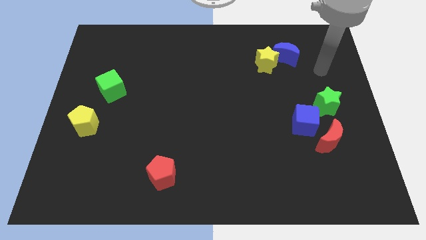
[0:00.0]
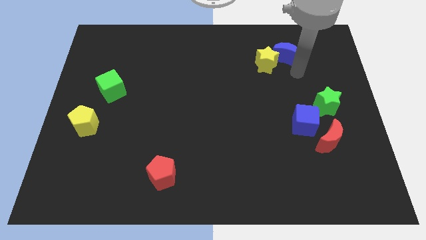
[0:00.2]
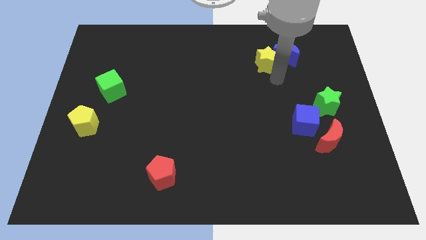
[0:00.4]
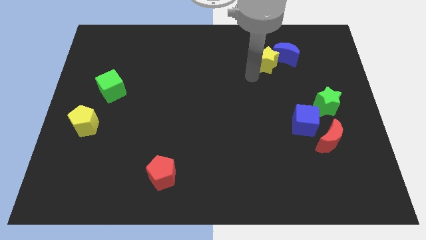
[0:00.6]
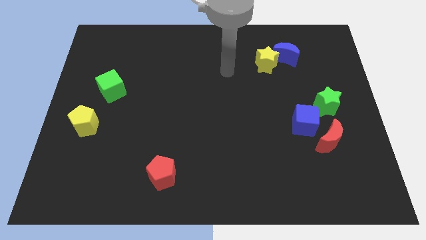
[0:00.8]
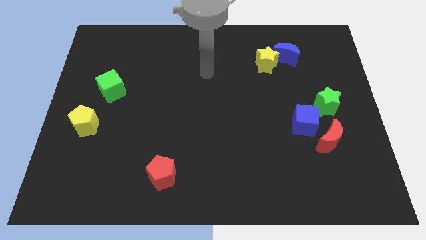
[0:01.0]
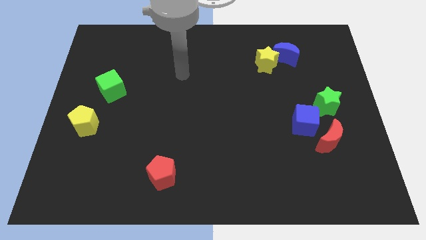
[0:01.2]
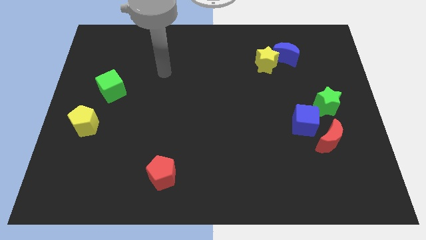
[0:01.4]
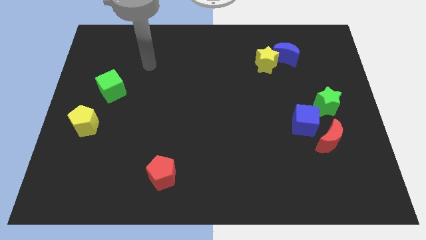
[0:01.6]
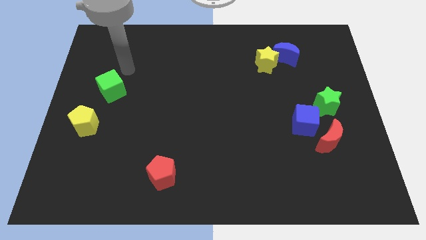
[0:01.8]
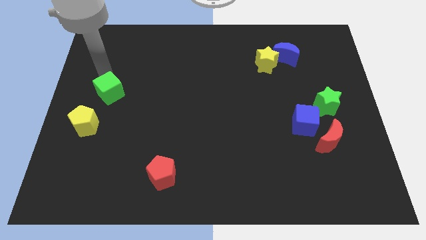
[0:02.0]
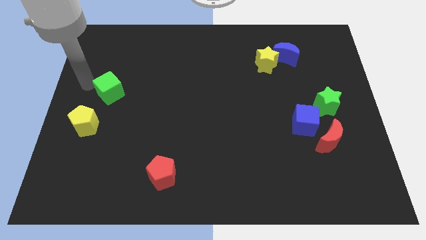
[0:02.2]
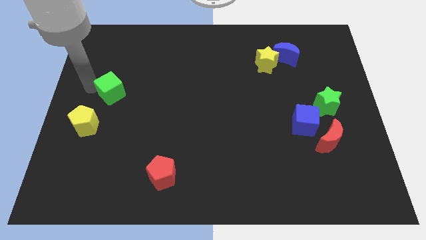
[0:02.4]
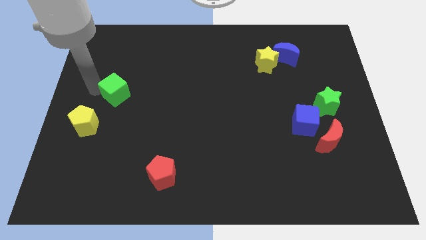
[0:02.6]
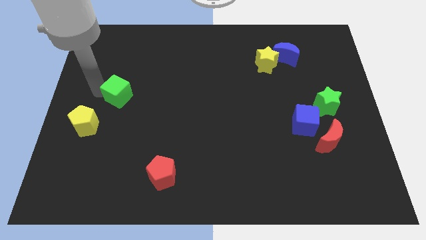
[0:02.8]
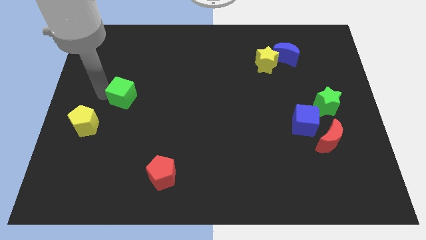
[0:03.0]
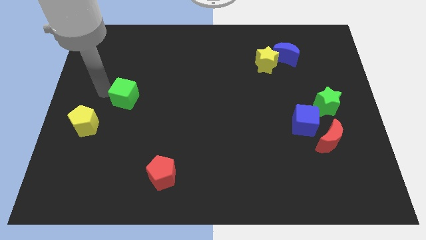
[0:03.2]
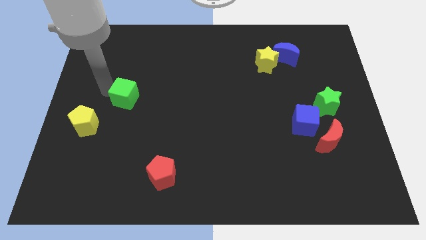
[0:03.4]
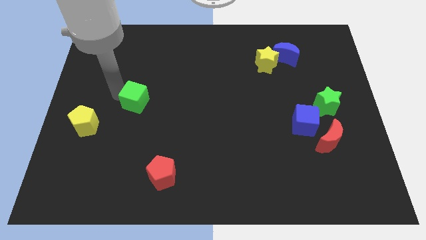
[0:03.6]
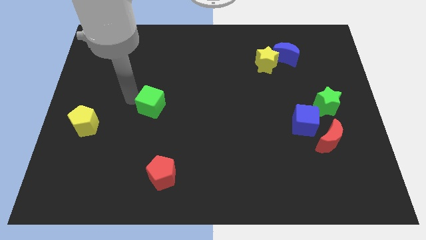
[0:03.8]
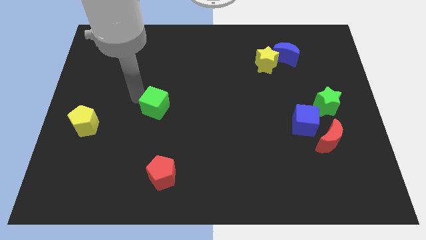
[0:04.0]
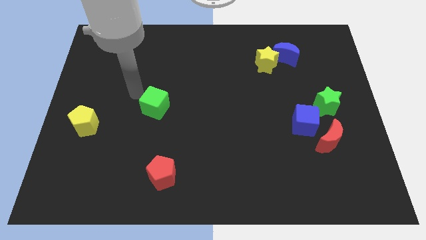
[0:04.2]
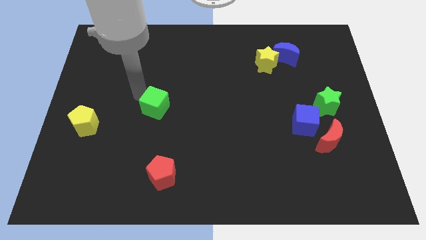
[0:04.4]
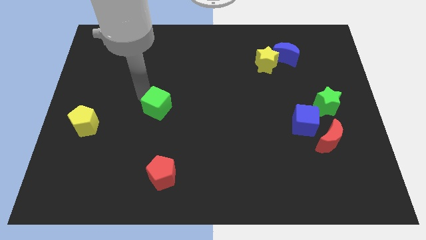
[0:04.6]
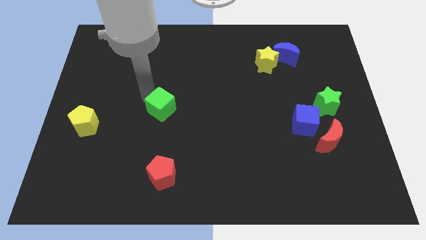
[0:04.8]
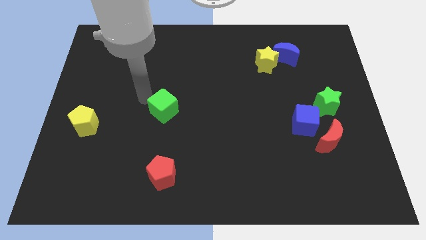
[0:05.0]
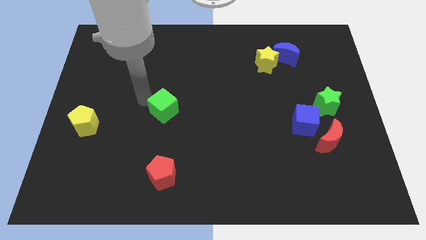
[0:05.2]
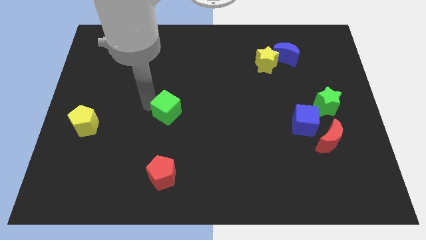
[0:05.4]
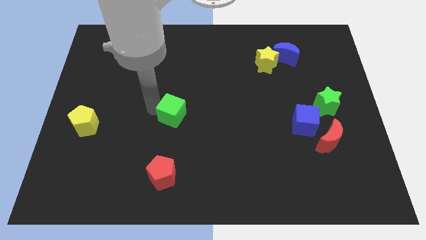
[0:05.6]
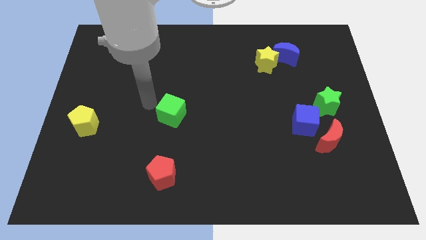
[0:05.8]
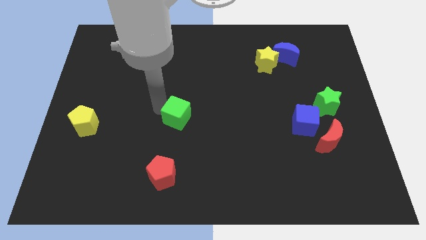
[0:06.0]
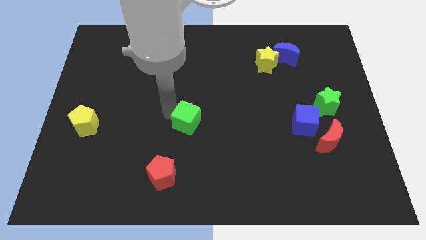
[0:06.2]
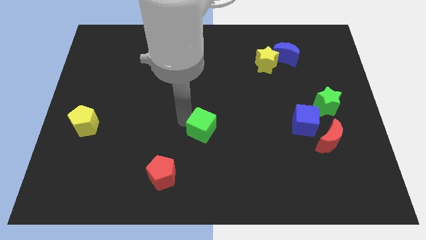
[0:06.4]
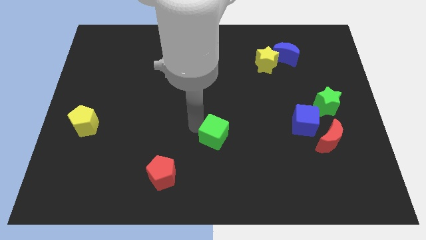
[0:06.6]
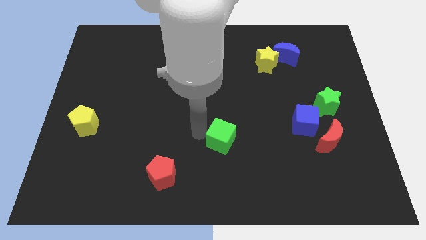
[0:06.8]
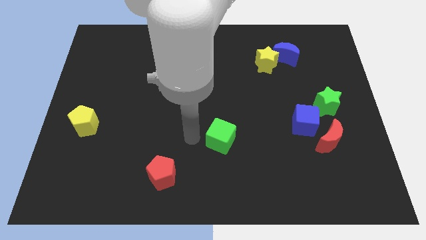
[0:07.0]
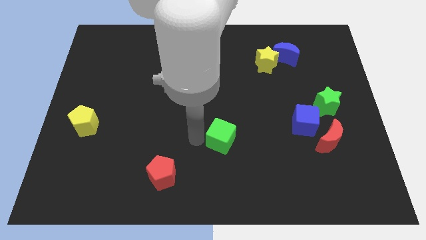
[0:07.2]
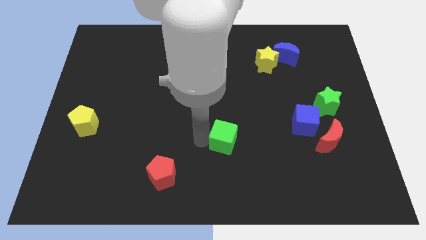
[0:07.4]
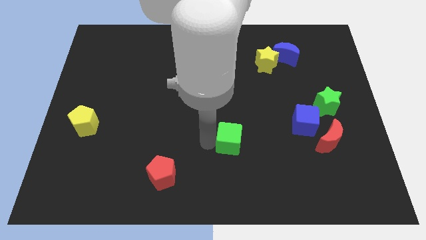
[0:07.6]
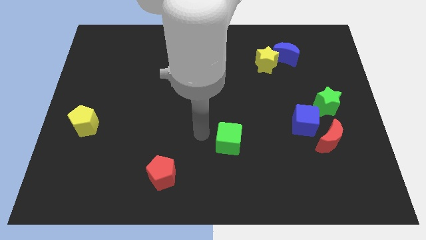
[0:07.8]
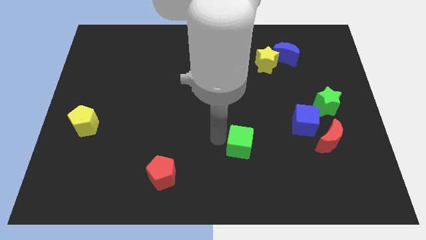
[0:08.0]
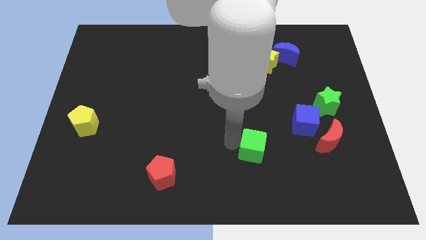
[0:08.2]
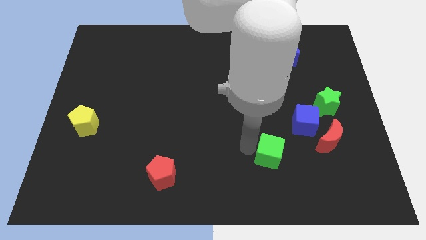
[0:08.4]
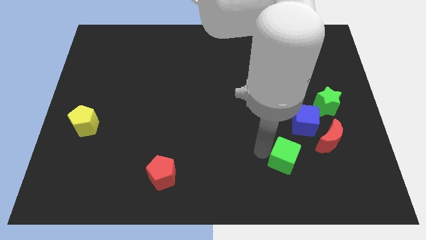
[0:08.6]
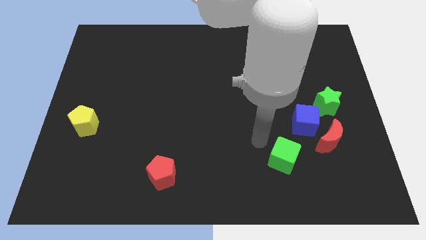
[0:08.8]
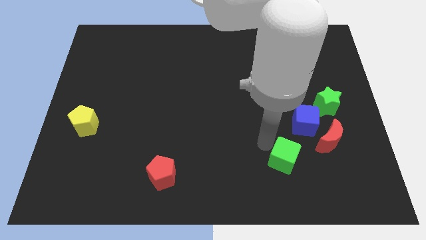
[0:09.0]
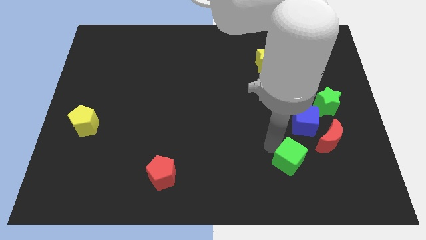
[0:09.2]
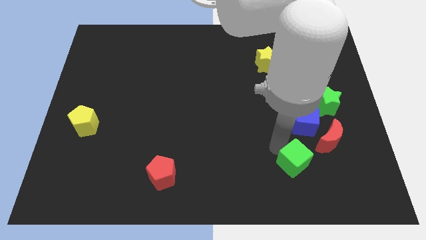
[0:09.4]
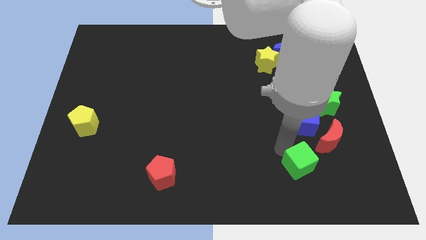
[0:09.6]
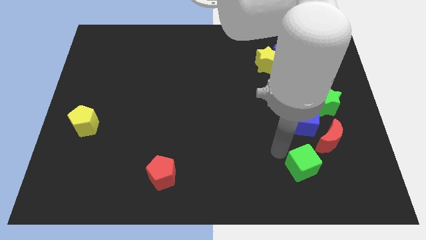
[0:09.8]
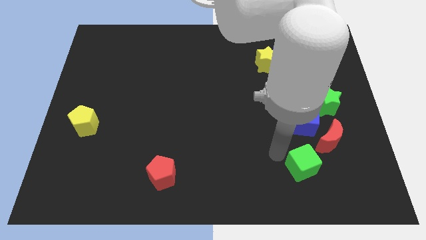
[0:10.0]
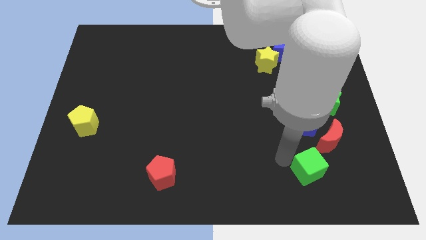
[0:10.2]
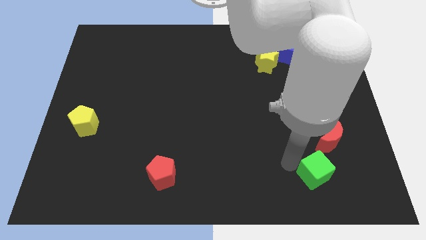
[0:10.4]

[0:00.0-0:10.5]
move the green cube to the bottom side of the red moon

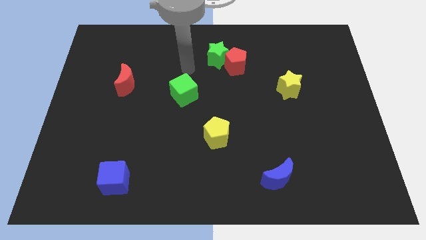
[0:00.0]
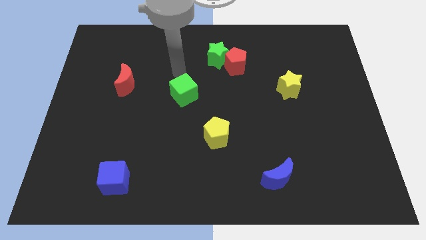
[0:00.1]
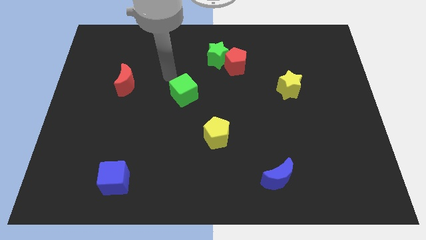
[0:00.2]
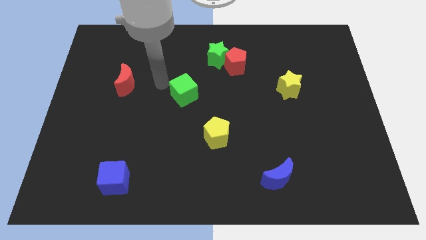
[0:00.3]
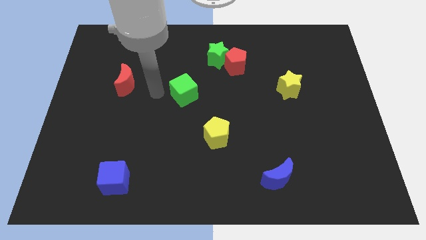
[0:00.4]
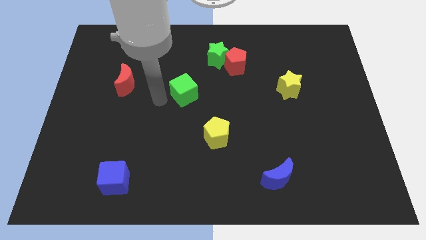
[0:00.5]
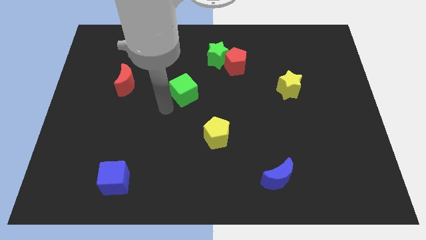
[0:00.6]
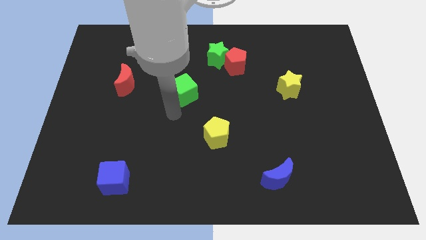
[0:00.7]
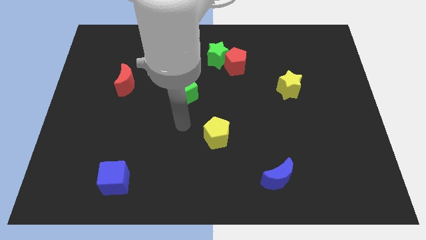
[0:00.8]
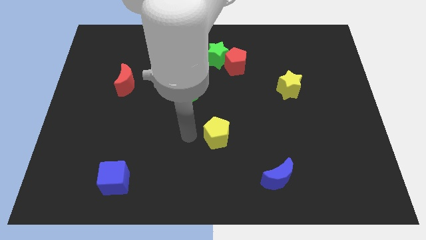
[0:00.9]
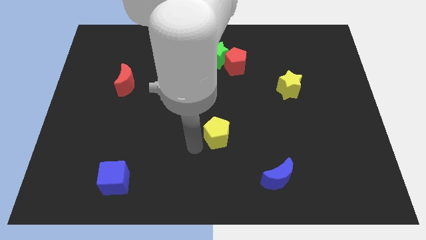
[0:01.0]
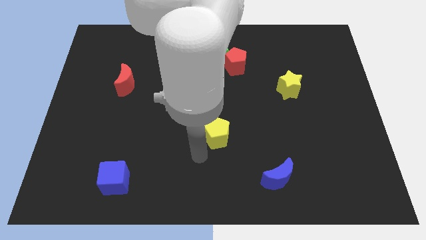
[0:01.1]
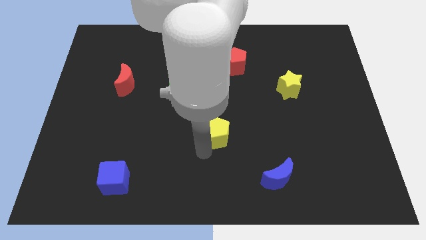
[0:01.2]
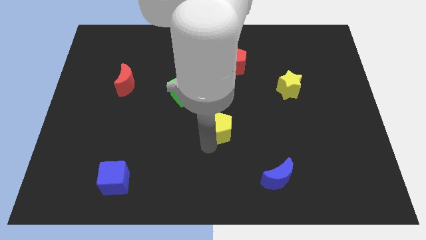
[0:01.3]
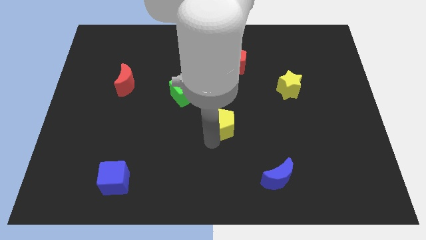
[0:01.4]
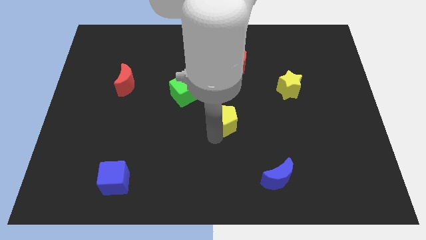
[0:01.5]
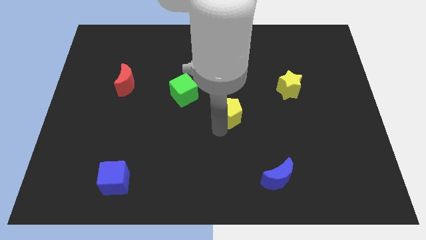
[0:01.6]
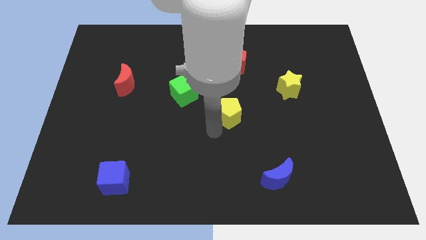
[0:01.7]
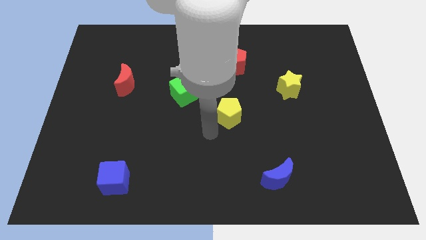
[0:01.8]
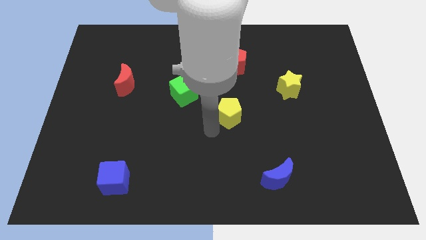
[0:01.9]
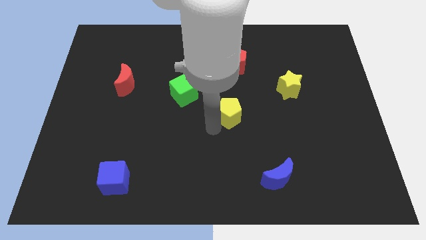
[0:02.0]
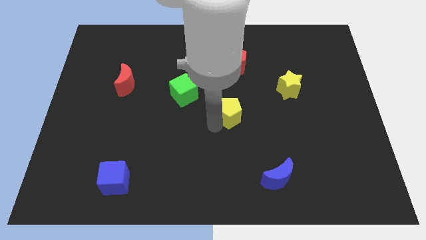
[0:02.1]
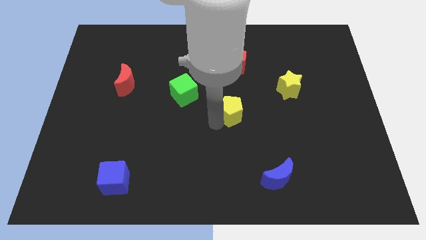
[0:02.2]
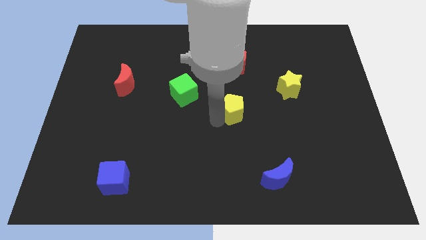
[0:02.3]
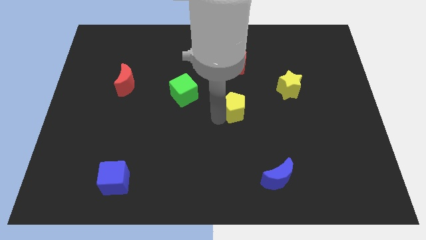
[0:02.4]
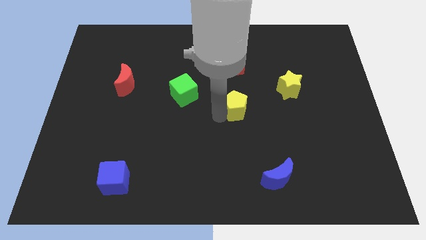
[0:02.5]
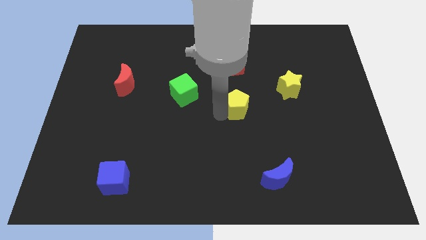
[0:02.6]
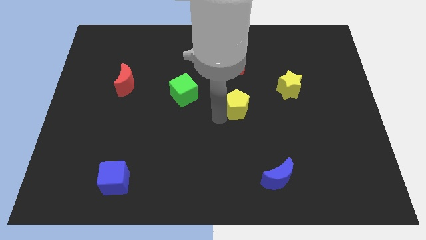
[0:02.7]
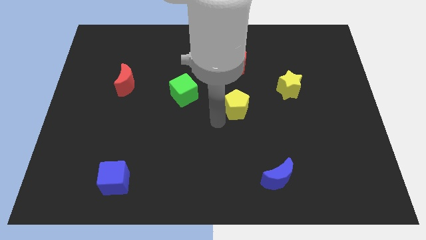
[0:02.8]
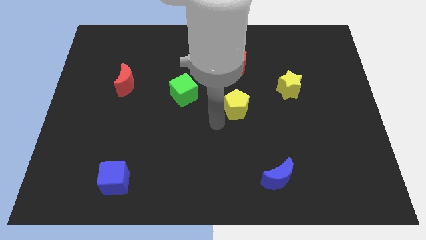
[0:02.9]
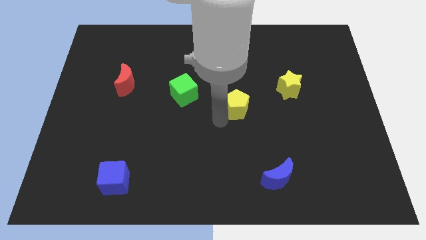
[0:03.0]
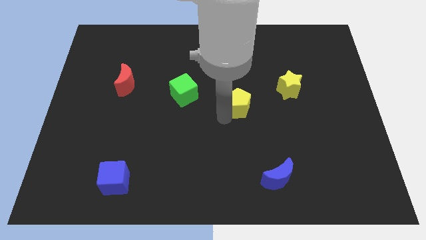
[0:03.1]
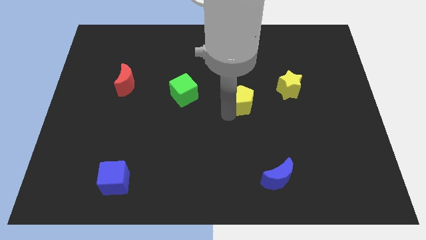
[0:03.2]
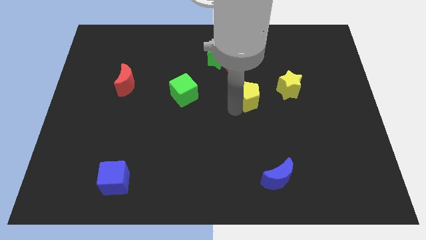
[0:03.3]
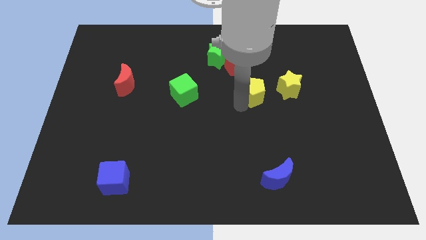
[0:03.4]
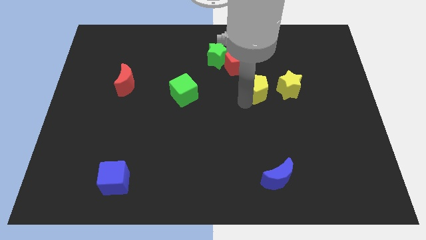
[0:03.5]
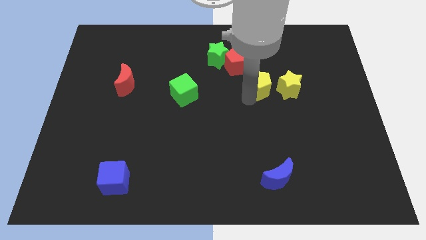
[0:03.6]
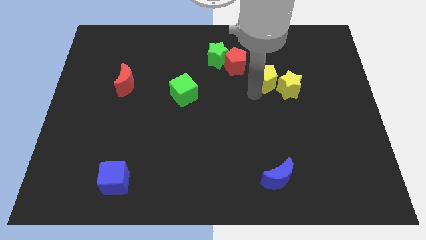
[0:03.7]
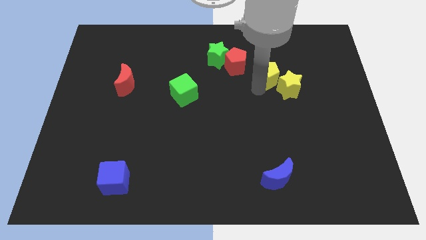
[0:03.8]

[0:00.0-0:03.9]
move the yellow pentagon to the right of the red pentagon
